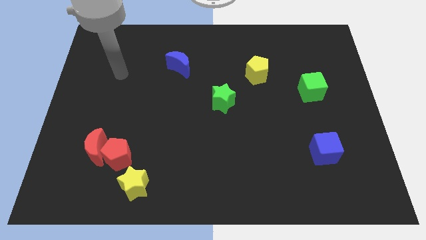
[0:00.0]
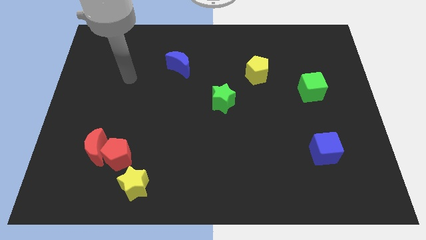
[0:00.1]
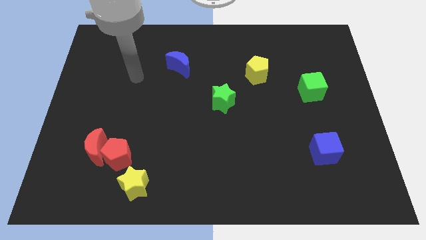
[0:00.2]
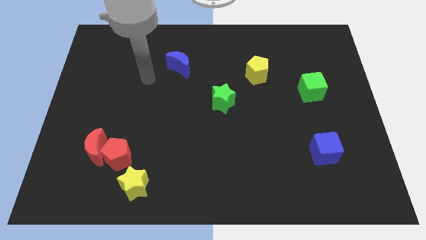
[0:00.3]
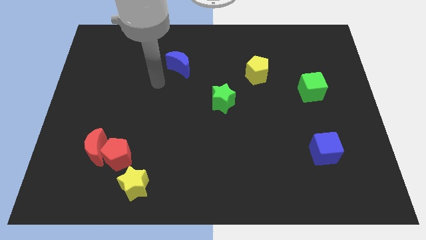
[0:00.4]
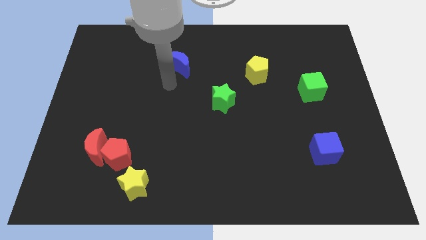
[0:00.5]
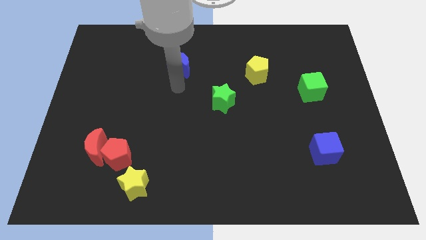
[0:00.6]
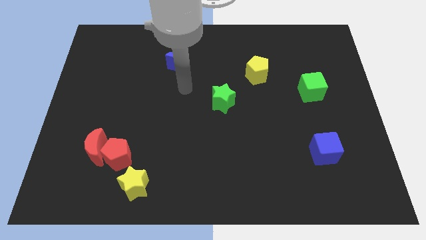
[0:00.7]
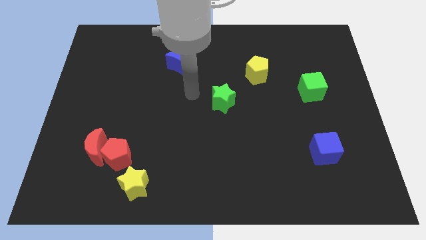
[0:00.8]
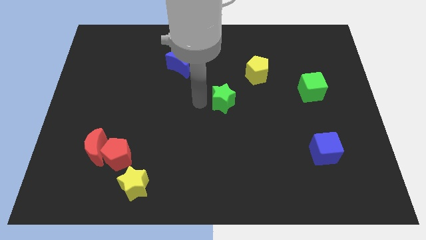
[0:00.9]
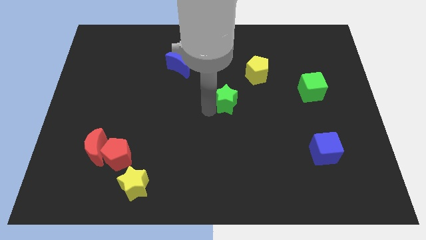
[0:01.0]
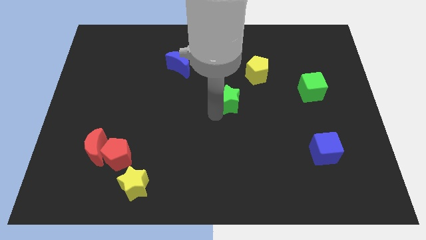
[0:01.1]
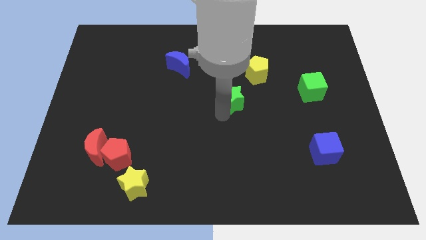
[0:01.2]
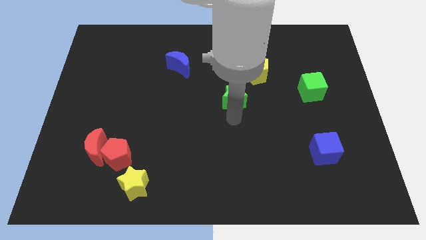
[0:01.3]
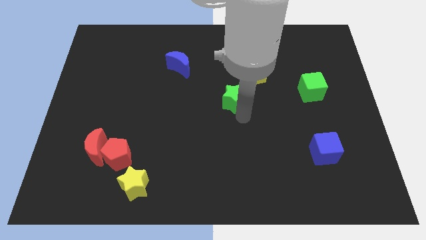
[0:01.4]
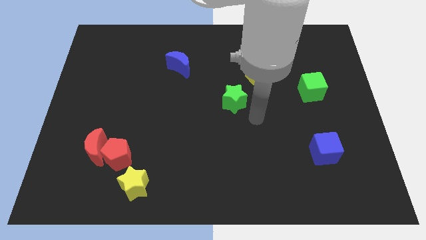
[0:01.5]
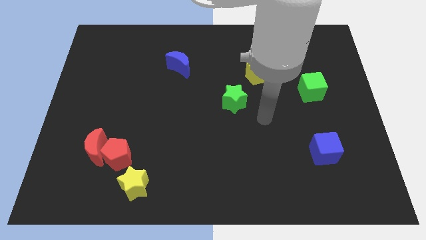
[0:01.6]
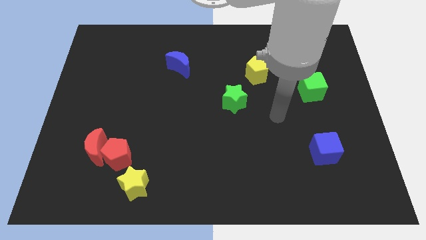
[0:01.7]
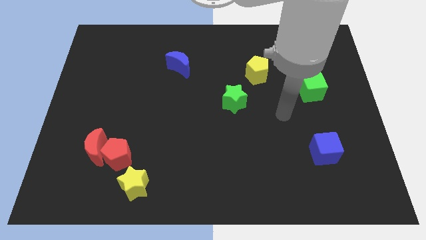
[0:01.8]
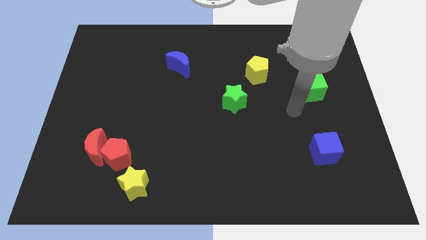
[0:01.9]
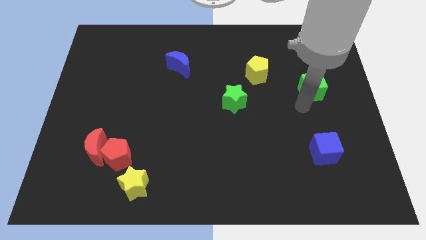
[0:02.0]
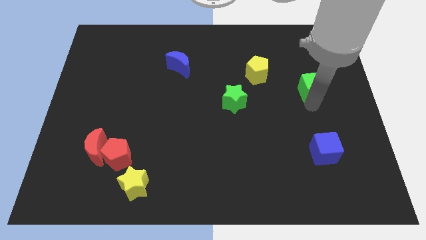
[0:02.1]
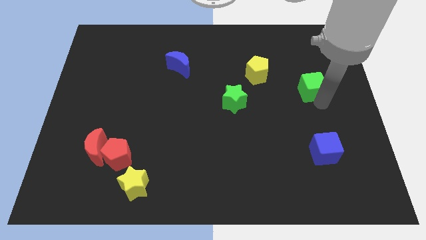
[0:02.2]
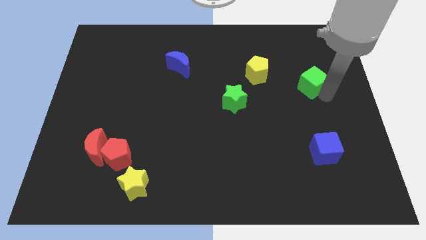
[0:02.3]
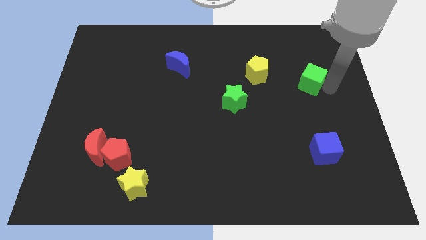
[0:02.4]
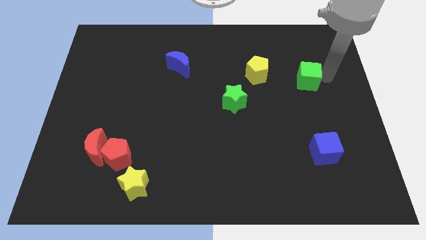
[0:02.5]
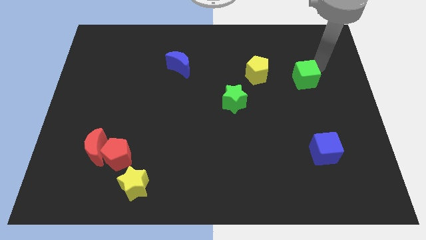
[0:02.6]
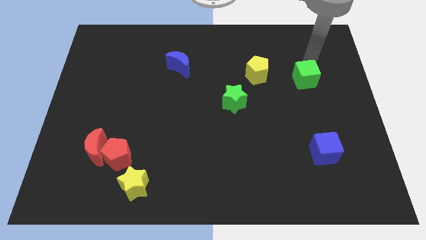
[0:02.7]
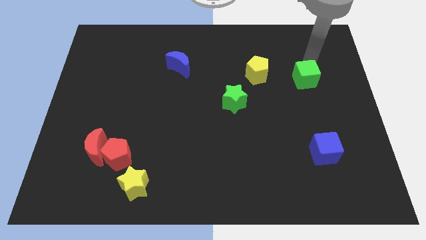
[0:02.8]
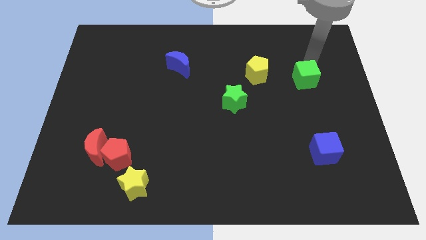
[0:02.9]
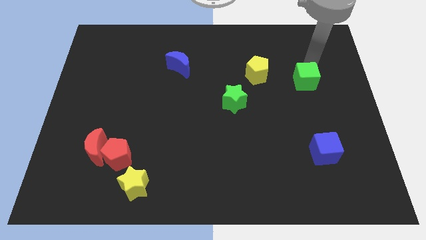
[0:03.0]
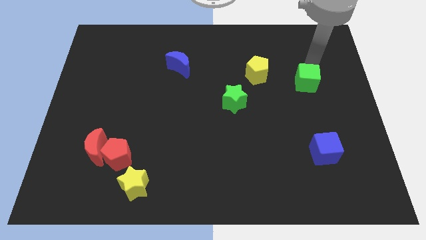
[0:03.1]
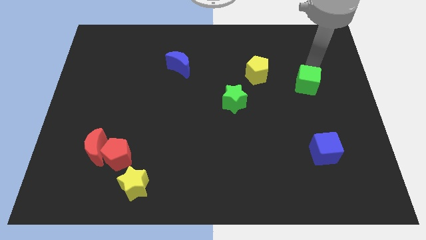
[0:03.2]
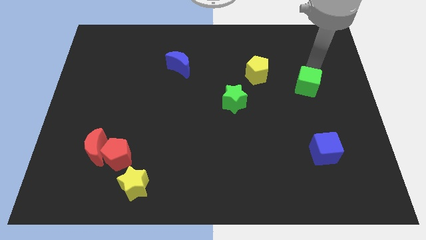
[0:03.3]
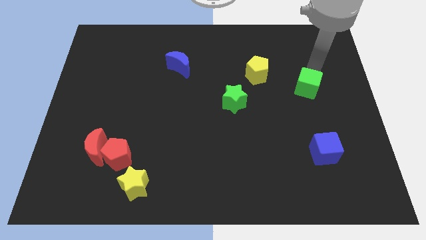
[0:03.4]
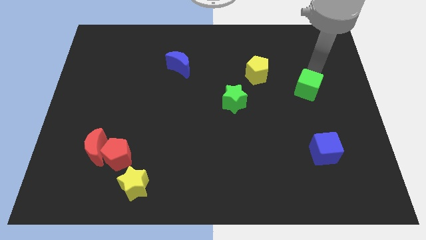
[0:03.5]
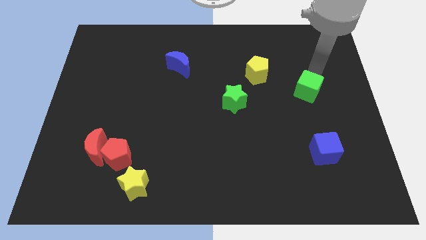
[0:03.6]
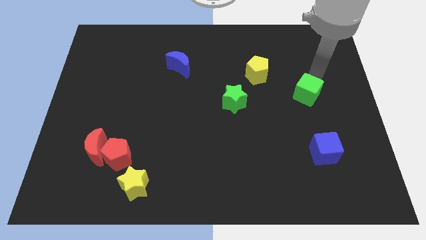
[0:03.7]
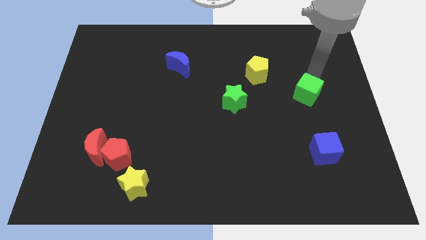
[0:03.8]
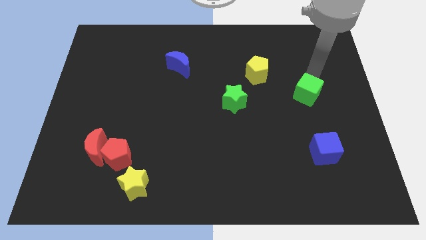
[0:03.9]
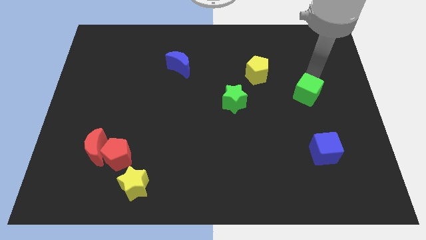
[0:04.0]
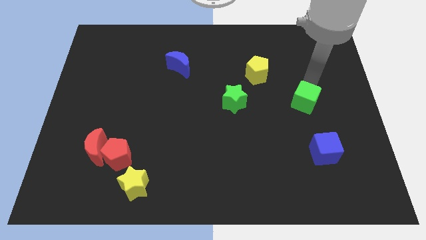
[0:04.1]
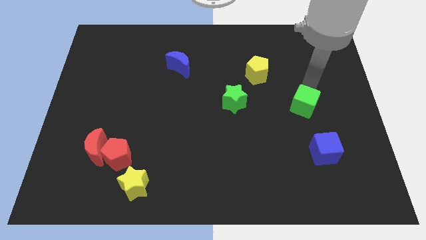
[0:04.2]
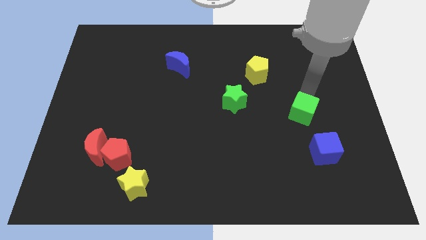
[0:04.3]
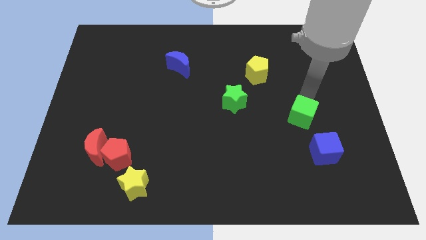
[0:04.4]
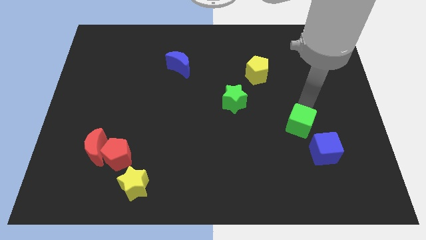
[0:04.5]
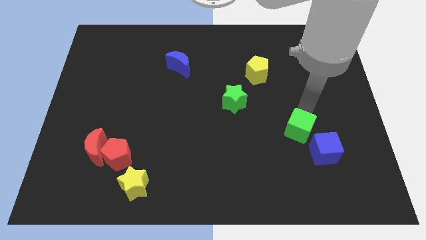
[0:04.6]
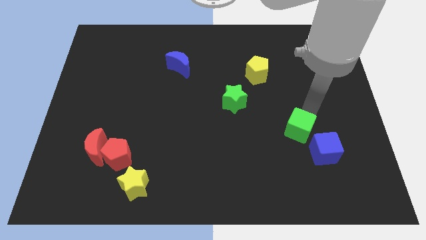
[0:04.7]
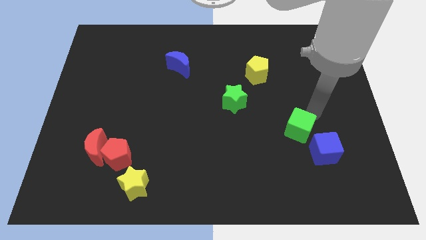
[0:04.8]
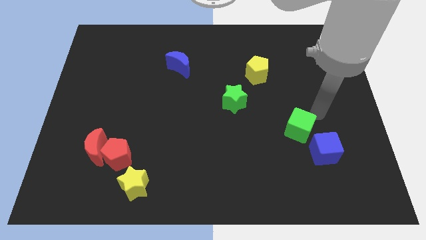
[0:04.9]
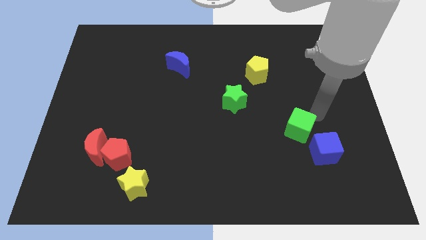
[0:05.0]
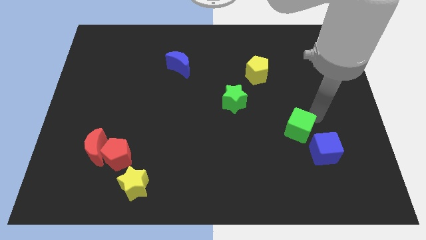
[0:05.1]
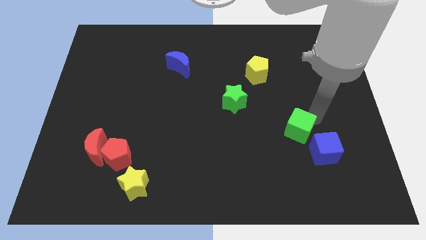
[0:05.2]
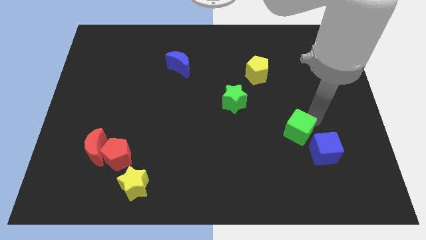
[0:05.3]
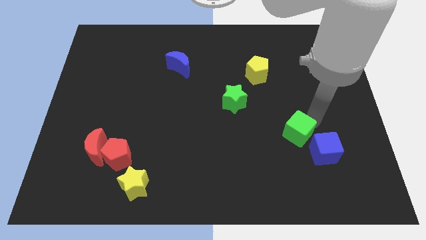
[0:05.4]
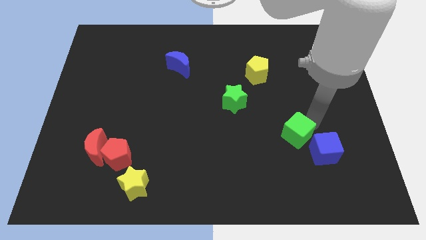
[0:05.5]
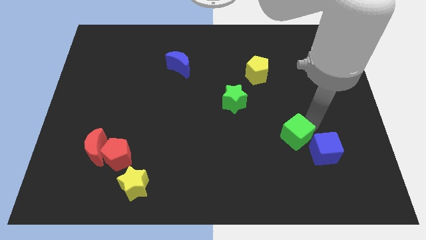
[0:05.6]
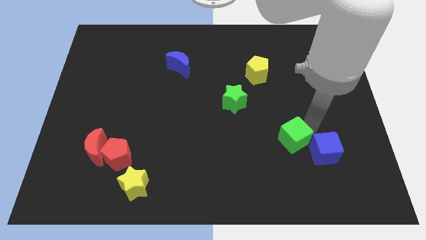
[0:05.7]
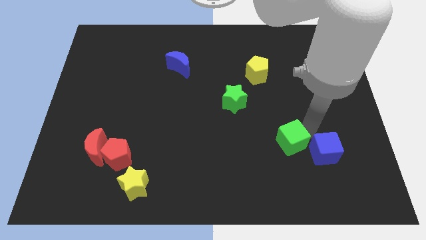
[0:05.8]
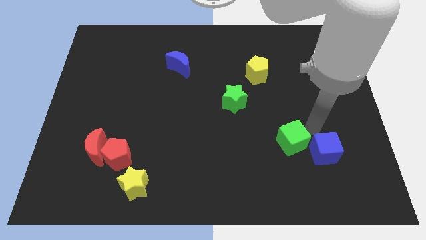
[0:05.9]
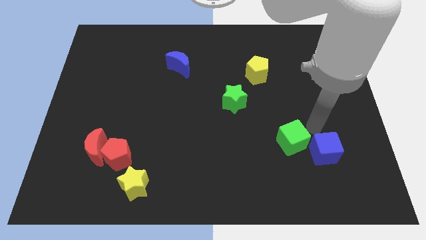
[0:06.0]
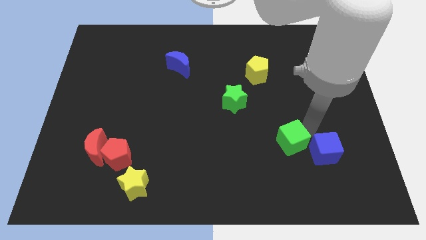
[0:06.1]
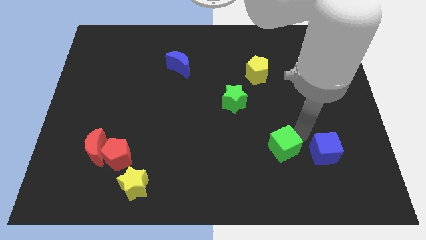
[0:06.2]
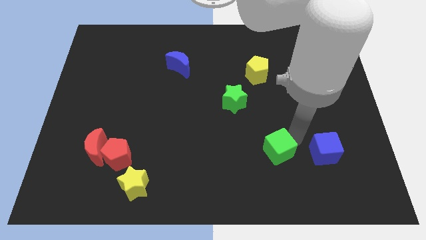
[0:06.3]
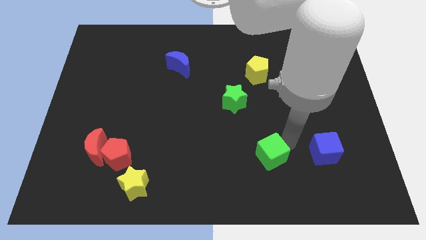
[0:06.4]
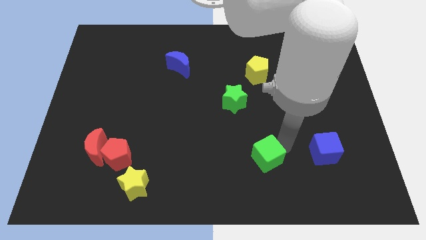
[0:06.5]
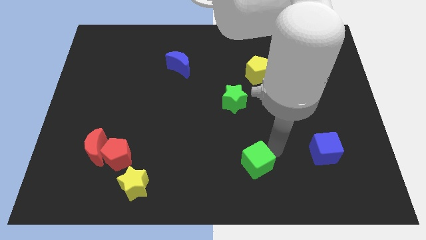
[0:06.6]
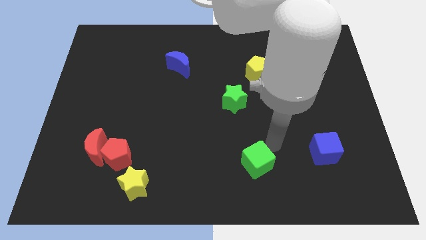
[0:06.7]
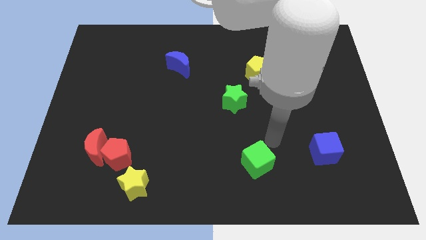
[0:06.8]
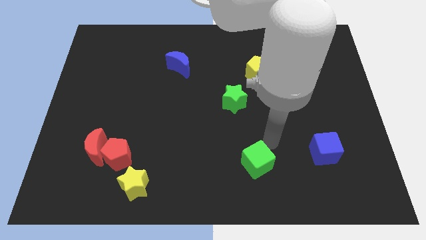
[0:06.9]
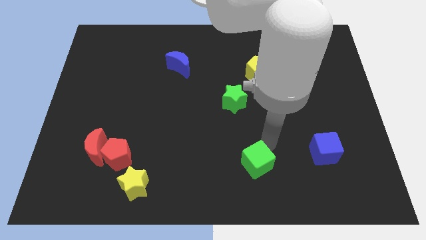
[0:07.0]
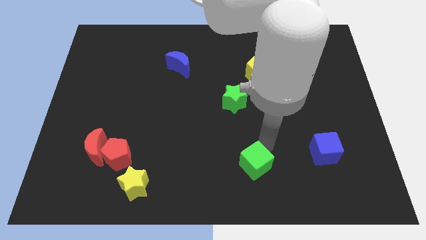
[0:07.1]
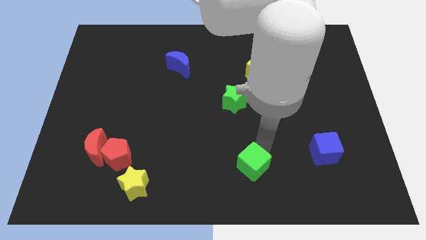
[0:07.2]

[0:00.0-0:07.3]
push the green cube to the bottom side

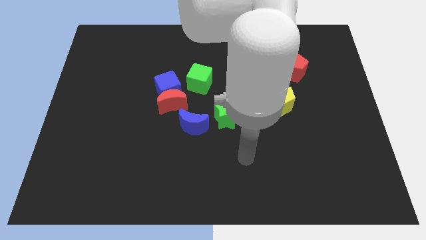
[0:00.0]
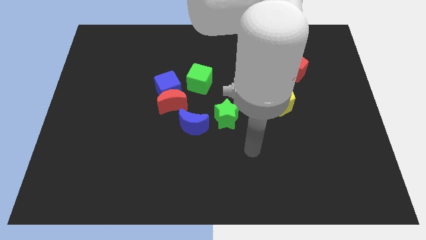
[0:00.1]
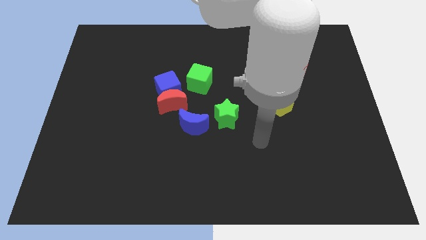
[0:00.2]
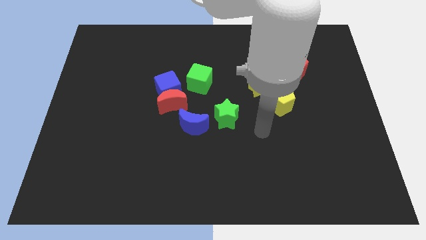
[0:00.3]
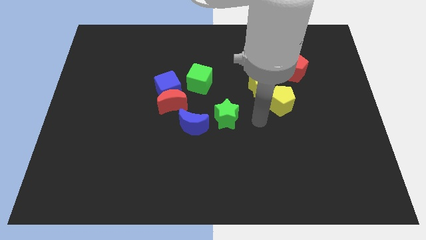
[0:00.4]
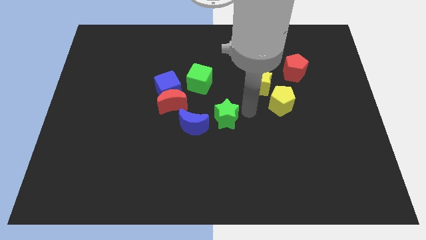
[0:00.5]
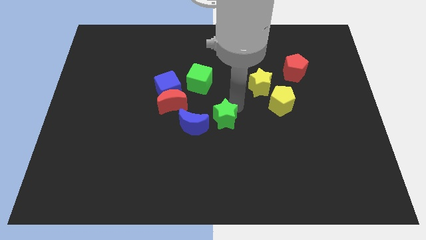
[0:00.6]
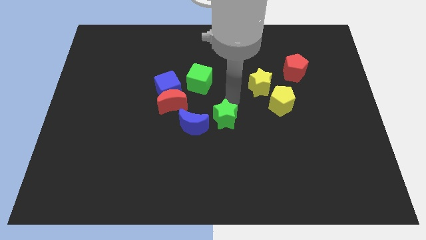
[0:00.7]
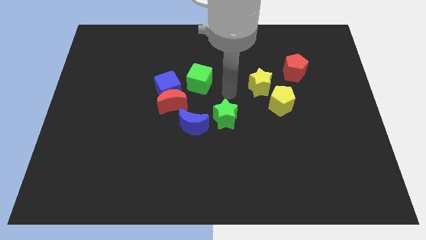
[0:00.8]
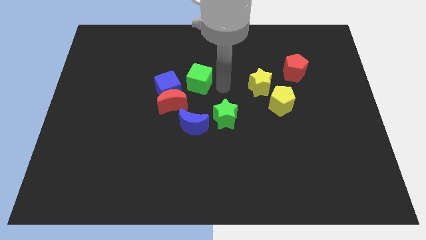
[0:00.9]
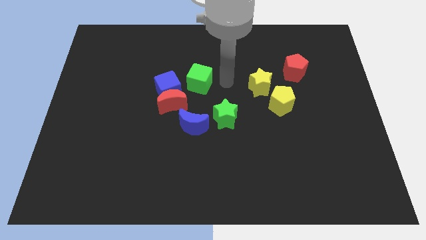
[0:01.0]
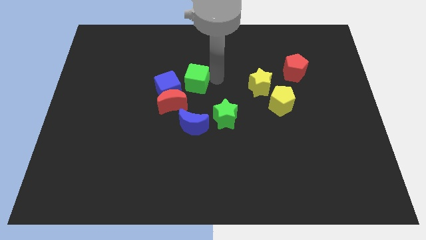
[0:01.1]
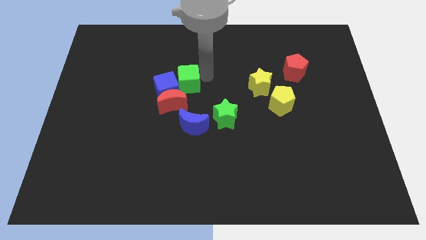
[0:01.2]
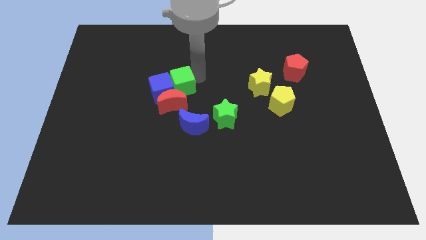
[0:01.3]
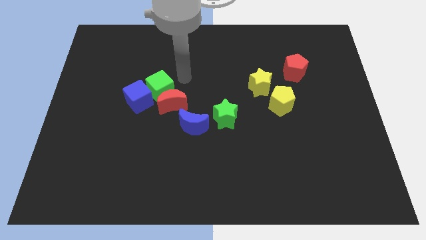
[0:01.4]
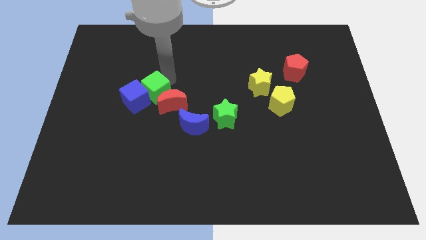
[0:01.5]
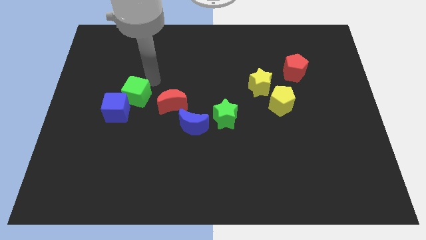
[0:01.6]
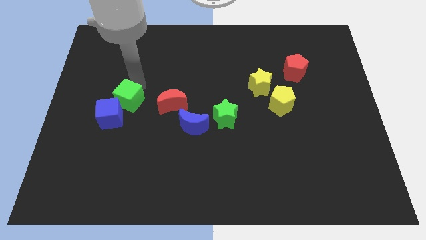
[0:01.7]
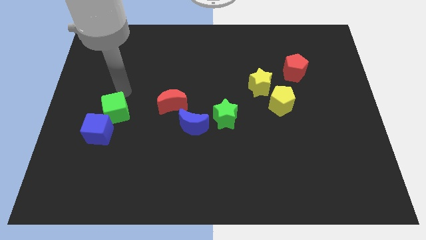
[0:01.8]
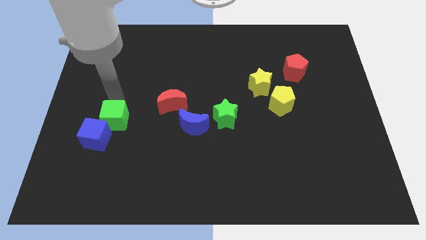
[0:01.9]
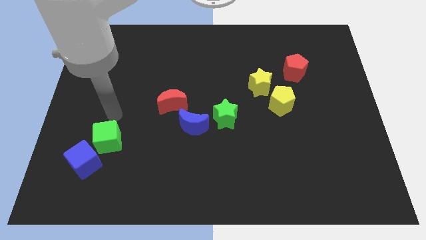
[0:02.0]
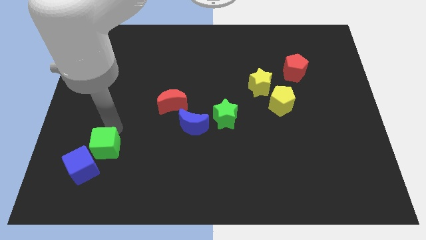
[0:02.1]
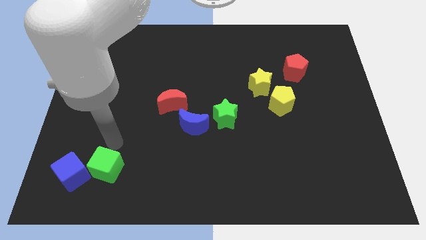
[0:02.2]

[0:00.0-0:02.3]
put the blue cube to the bottom left
